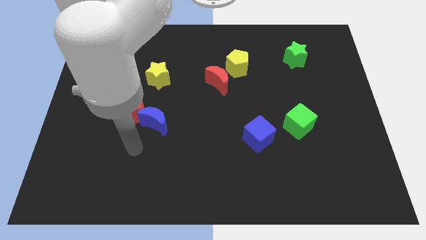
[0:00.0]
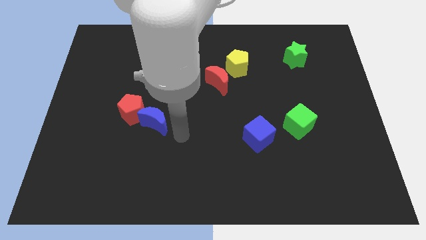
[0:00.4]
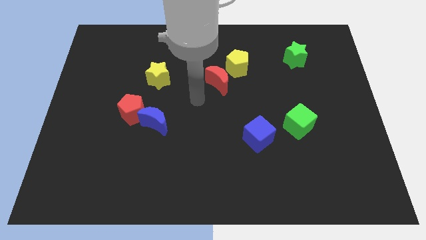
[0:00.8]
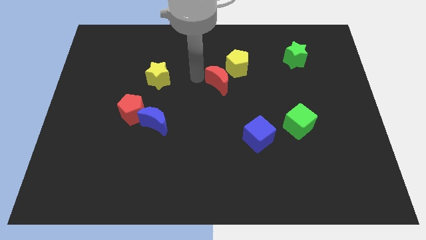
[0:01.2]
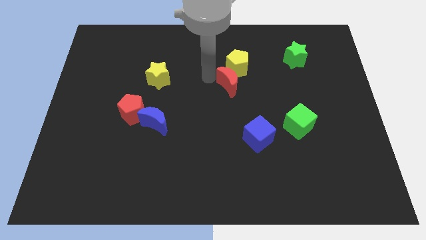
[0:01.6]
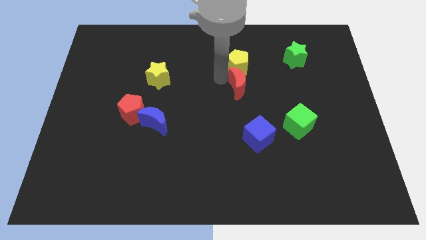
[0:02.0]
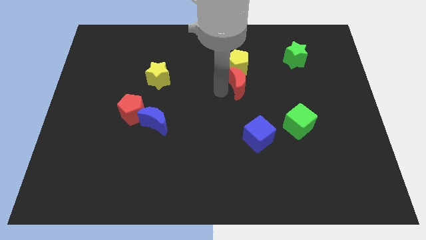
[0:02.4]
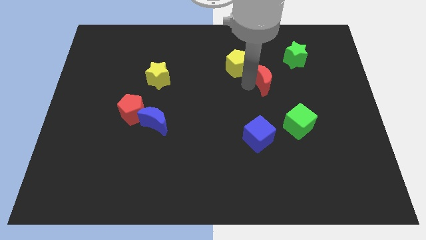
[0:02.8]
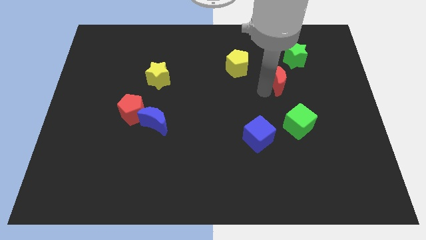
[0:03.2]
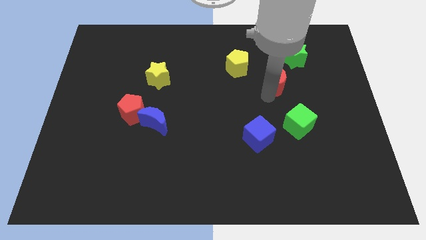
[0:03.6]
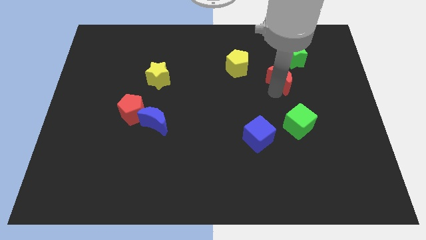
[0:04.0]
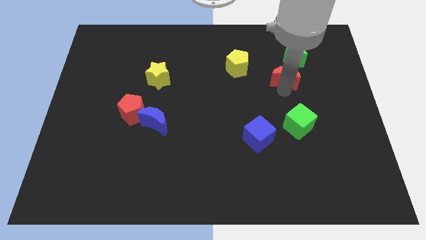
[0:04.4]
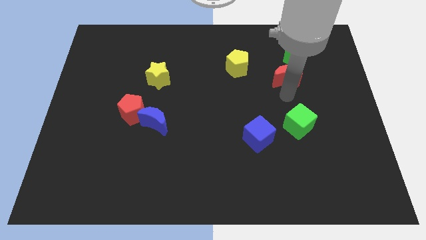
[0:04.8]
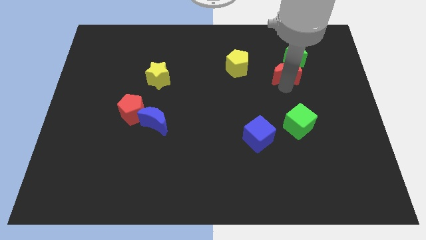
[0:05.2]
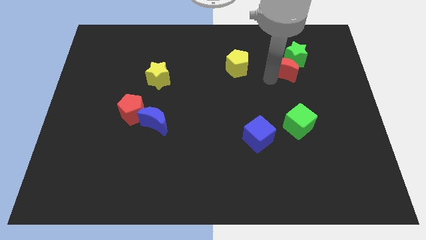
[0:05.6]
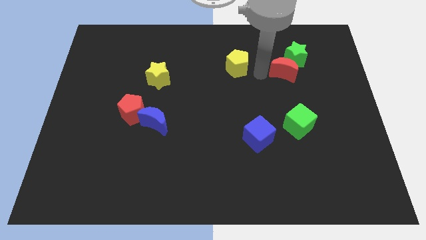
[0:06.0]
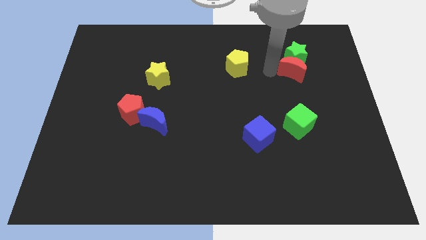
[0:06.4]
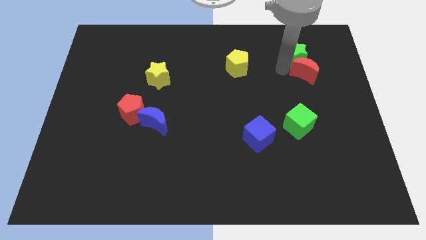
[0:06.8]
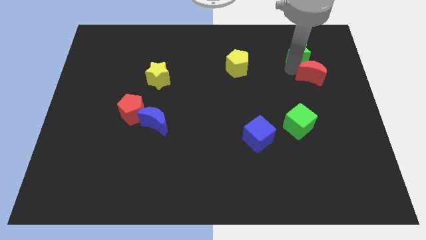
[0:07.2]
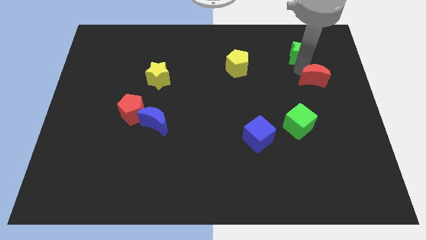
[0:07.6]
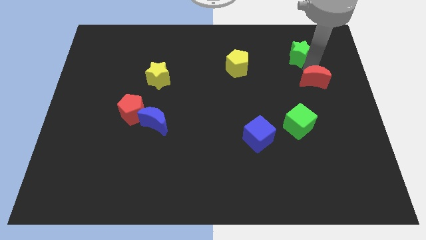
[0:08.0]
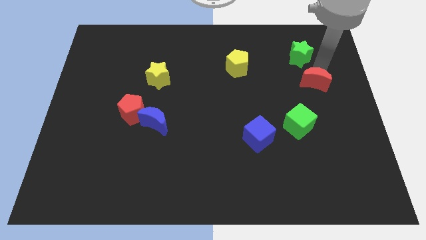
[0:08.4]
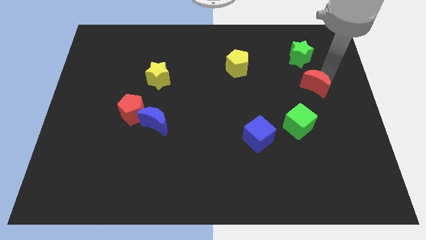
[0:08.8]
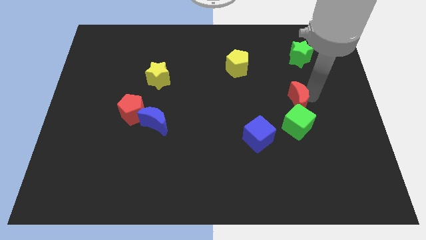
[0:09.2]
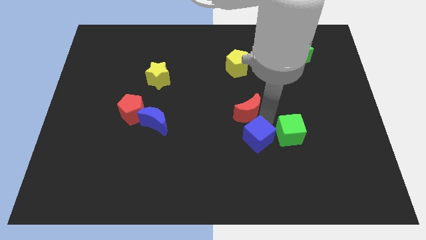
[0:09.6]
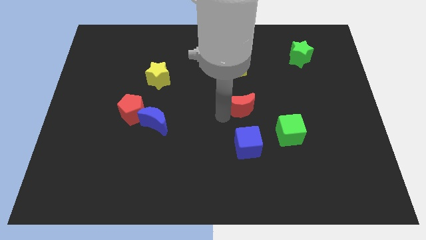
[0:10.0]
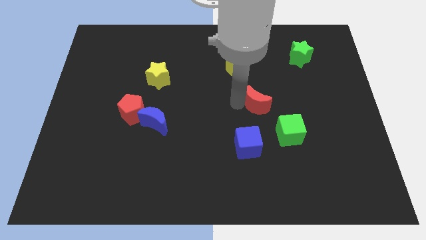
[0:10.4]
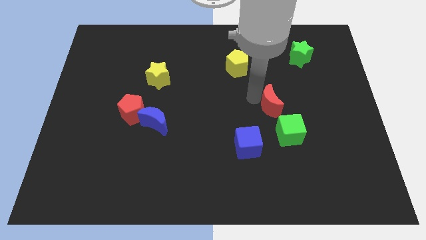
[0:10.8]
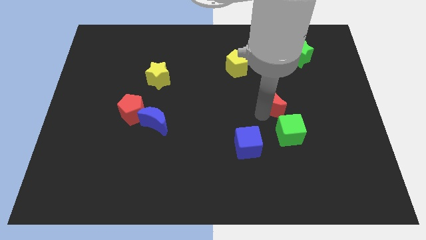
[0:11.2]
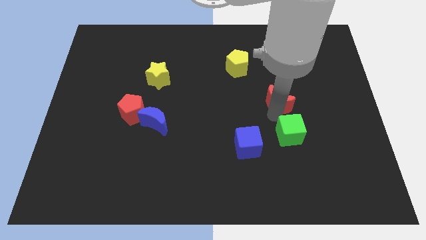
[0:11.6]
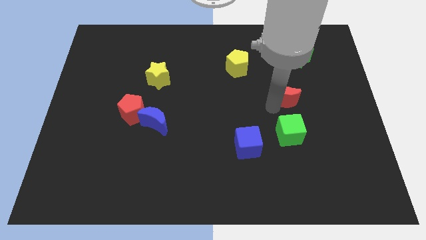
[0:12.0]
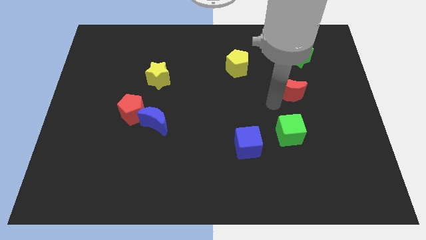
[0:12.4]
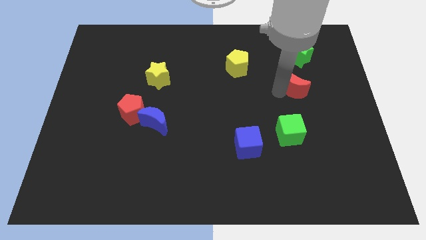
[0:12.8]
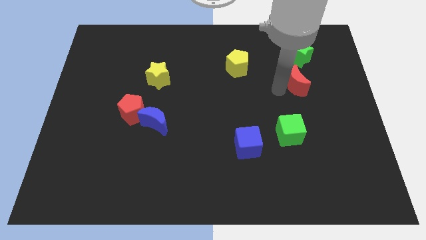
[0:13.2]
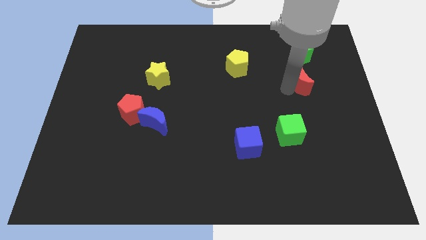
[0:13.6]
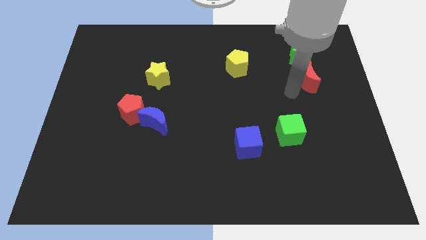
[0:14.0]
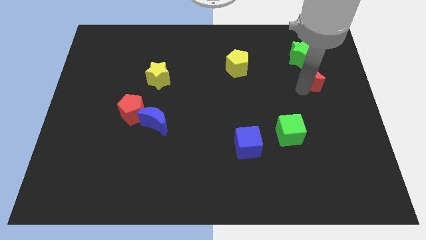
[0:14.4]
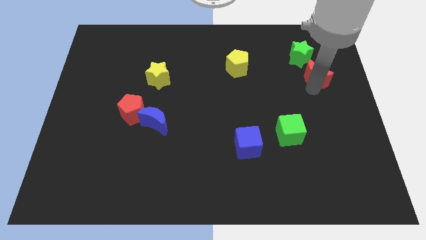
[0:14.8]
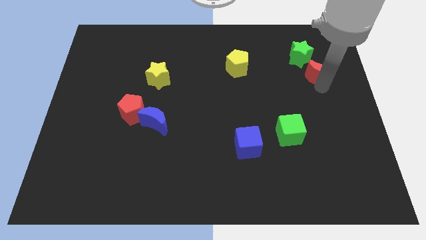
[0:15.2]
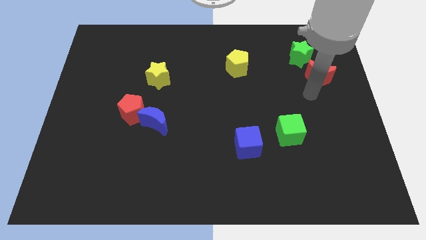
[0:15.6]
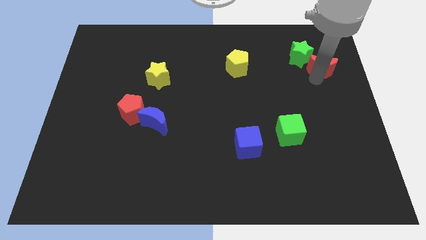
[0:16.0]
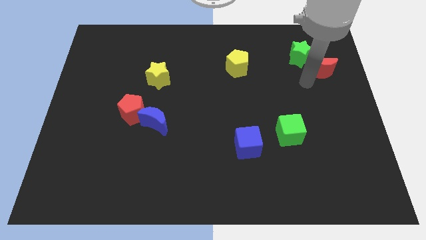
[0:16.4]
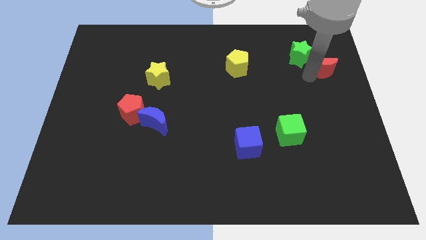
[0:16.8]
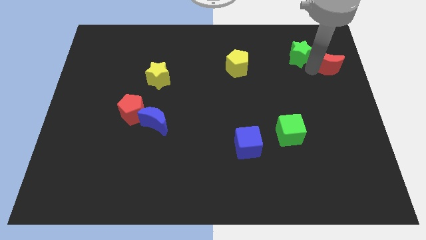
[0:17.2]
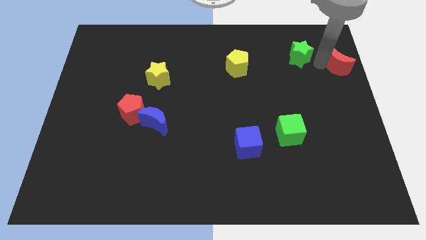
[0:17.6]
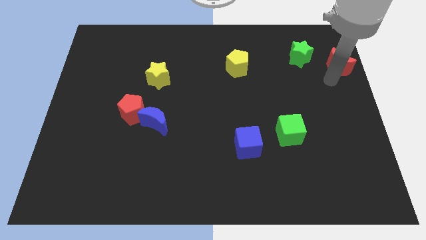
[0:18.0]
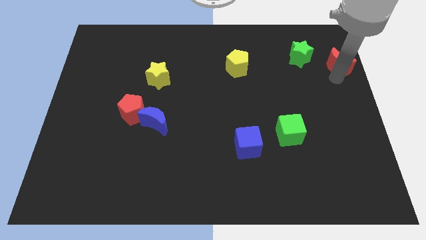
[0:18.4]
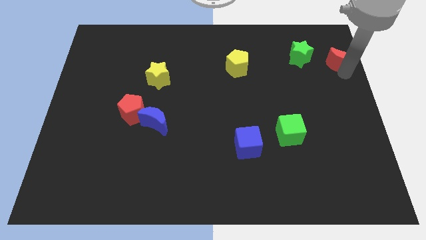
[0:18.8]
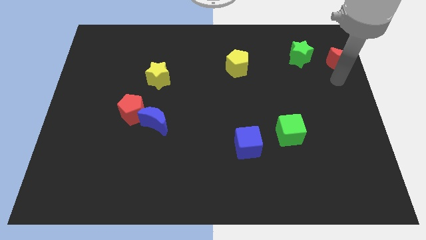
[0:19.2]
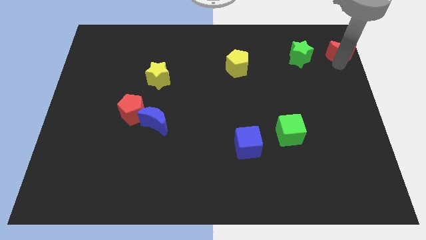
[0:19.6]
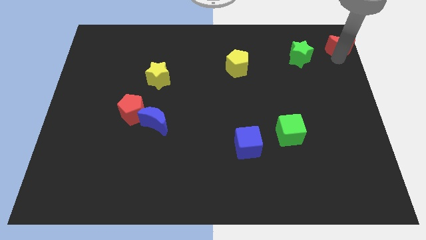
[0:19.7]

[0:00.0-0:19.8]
move the red moon to the top right of the board

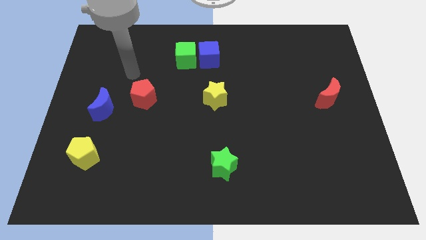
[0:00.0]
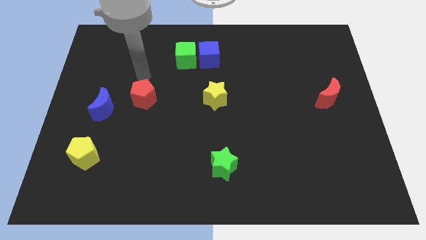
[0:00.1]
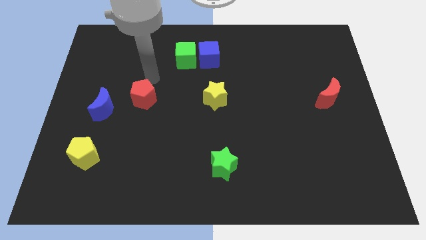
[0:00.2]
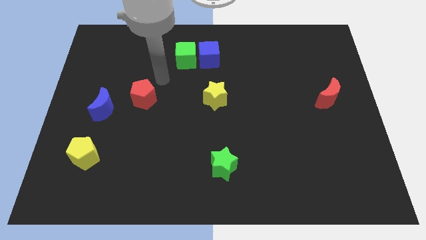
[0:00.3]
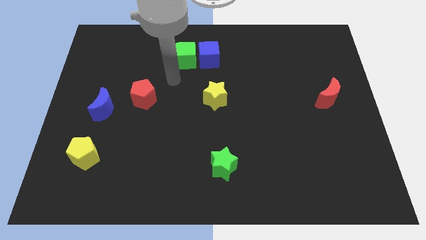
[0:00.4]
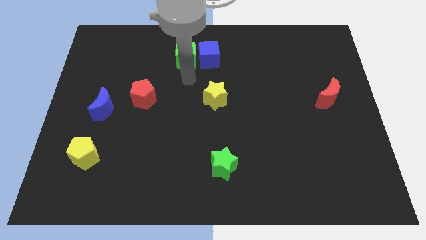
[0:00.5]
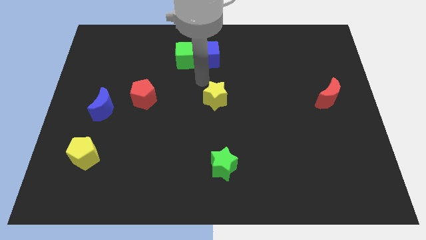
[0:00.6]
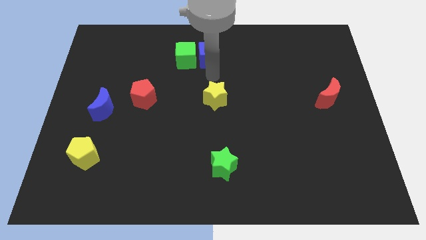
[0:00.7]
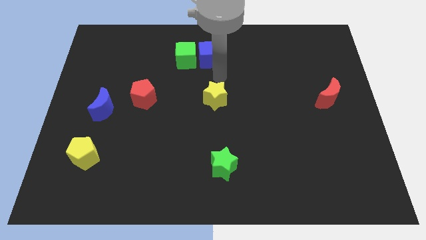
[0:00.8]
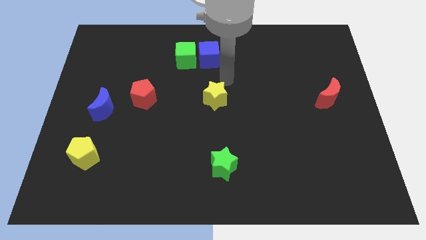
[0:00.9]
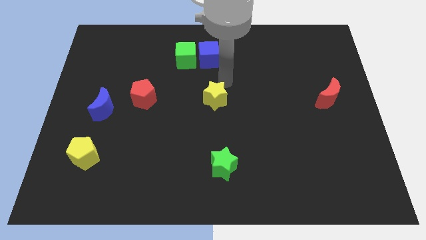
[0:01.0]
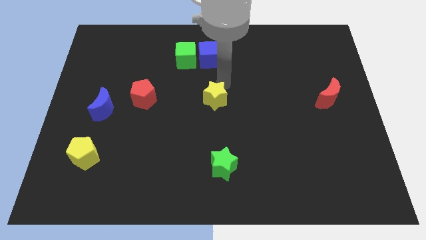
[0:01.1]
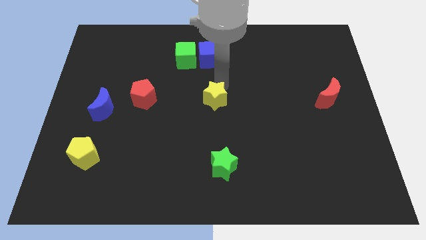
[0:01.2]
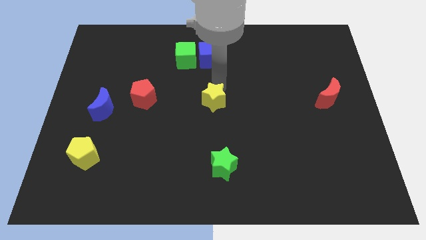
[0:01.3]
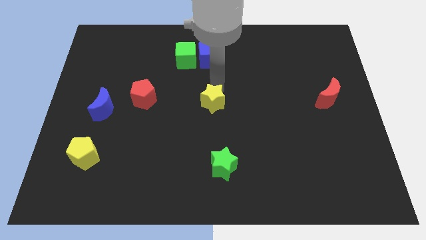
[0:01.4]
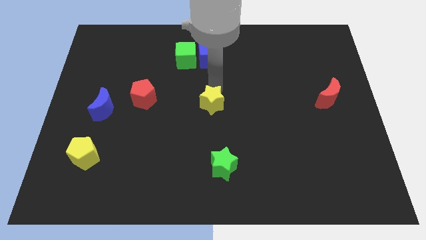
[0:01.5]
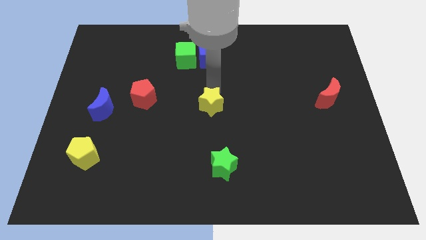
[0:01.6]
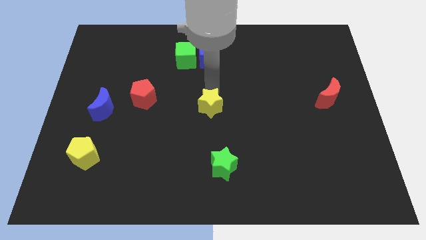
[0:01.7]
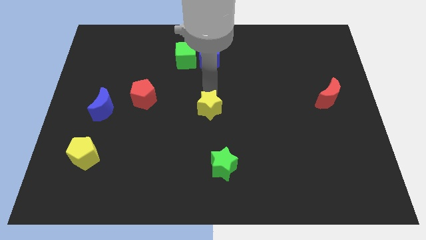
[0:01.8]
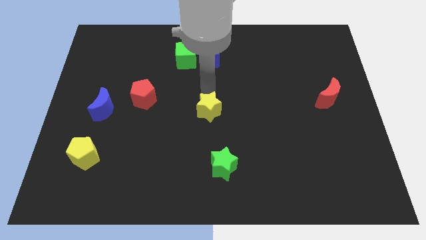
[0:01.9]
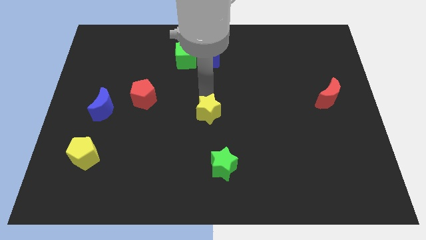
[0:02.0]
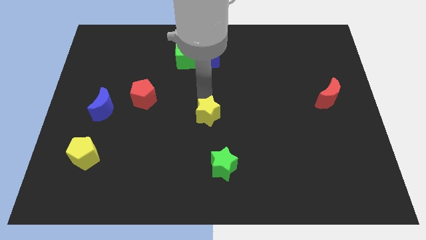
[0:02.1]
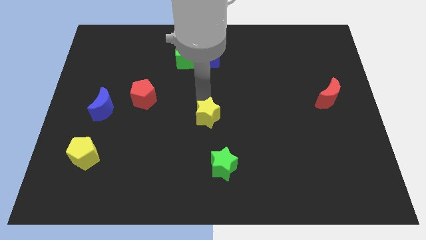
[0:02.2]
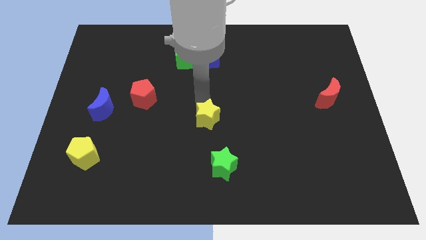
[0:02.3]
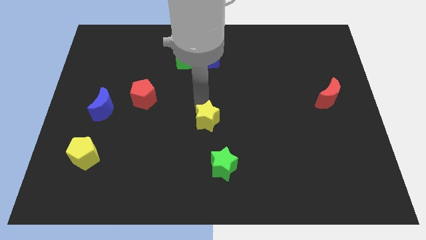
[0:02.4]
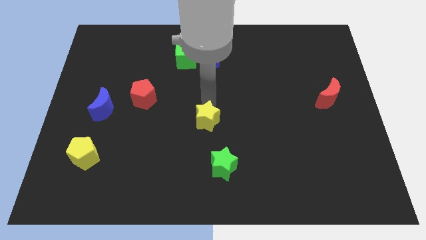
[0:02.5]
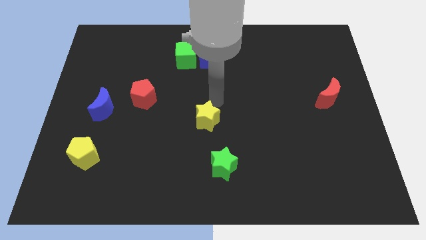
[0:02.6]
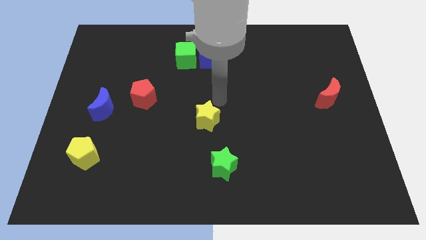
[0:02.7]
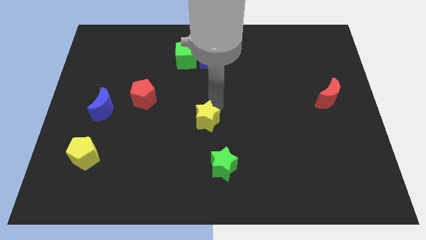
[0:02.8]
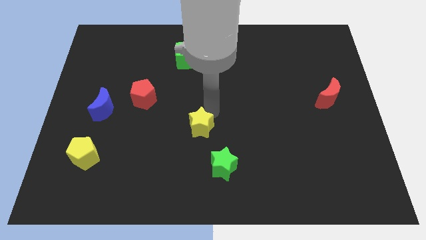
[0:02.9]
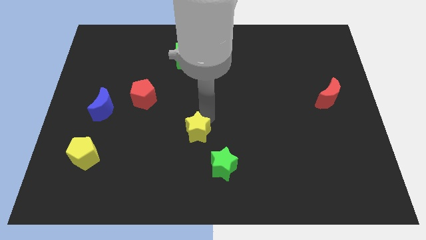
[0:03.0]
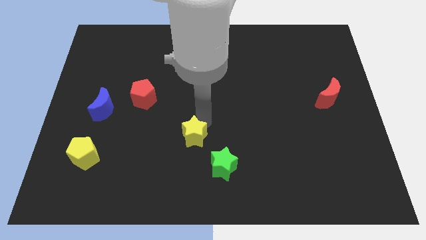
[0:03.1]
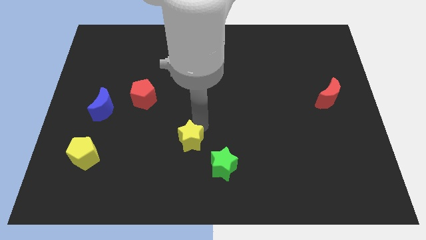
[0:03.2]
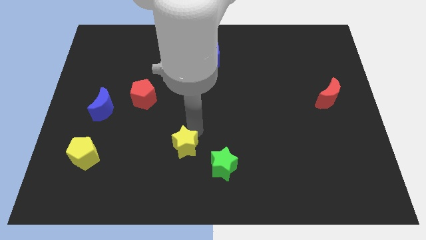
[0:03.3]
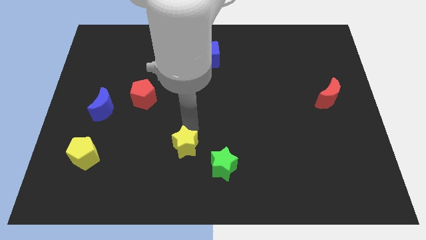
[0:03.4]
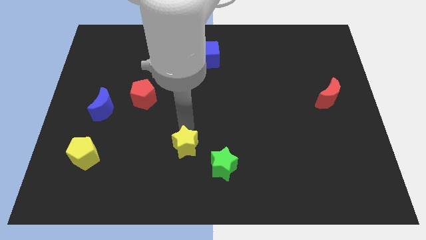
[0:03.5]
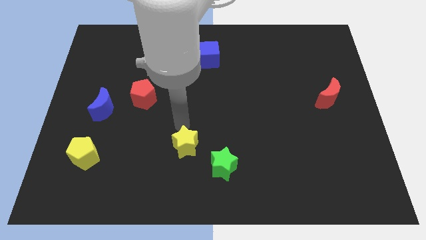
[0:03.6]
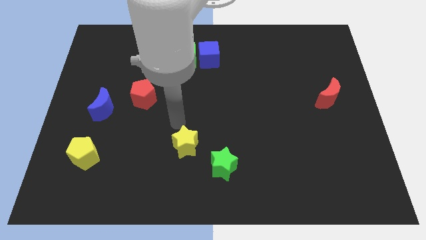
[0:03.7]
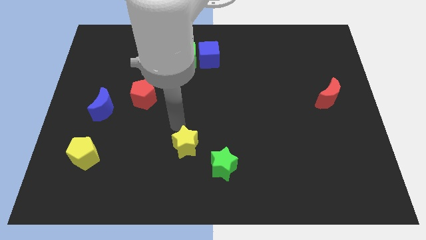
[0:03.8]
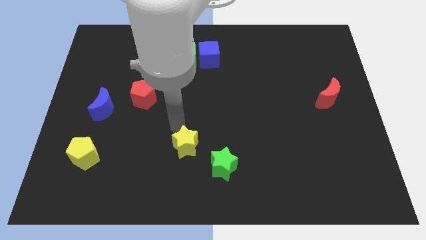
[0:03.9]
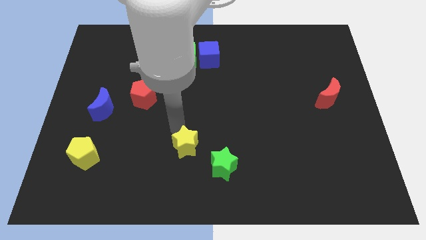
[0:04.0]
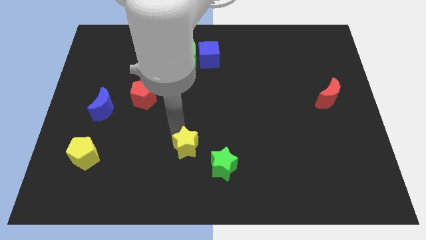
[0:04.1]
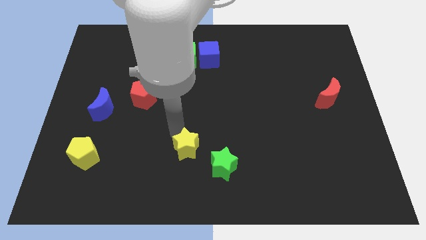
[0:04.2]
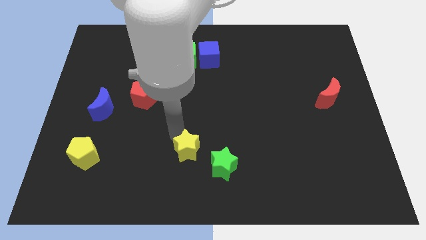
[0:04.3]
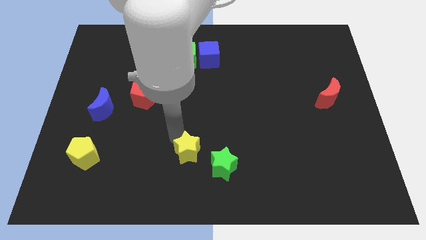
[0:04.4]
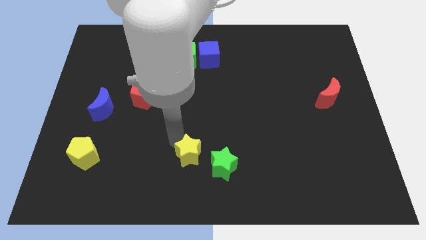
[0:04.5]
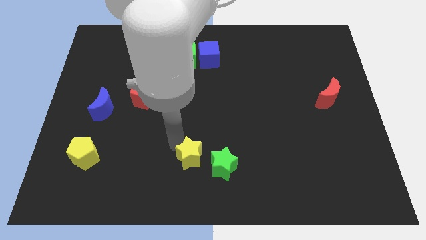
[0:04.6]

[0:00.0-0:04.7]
move the yellow star to the bottom side
